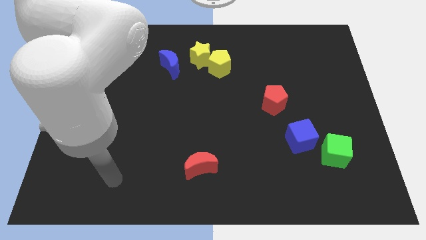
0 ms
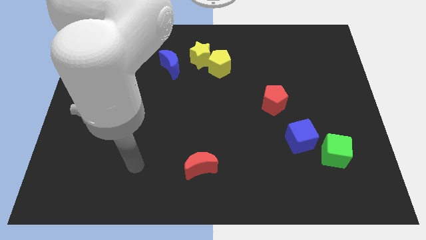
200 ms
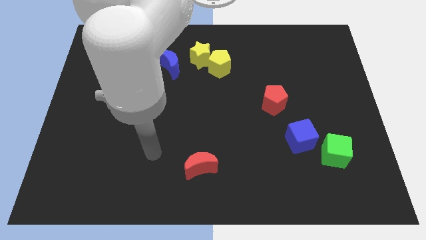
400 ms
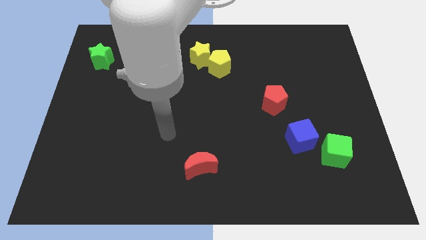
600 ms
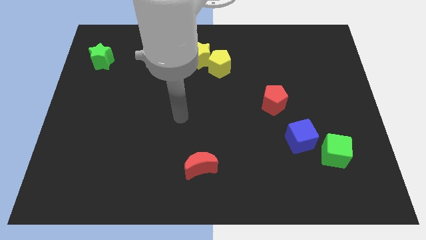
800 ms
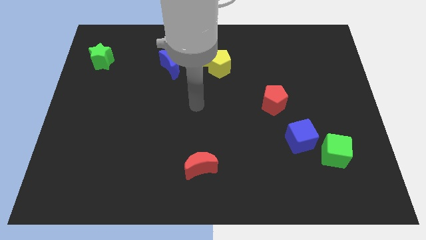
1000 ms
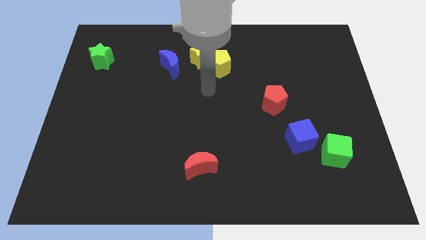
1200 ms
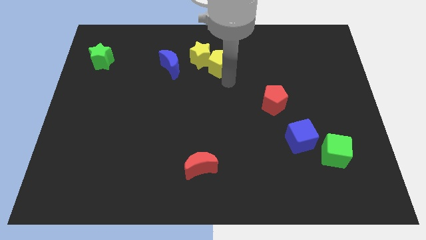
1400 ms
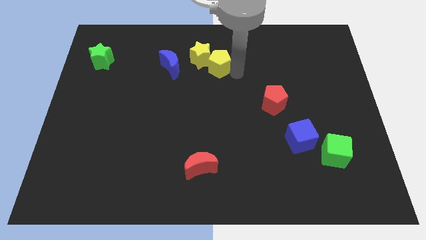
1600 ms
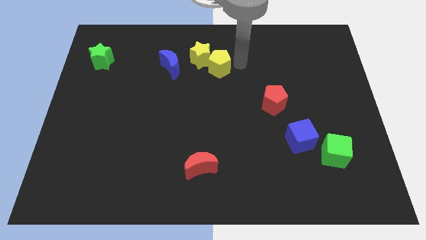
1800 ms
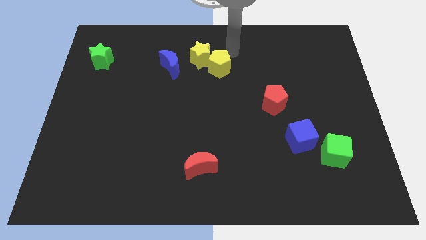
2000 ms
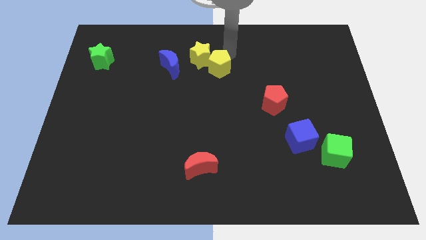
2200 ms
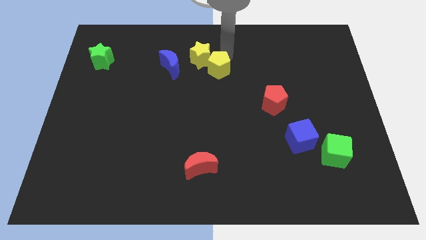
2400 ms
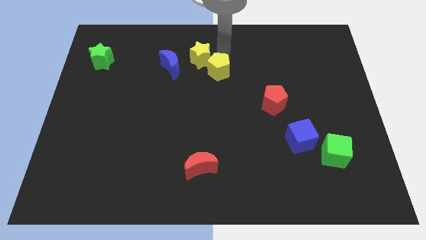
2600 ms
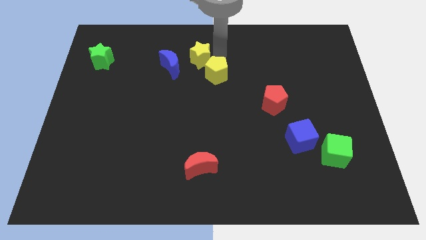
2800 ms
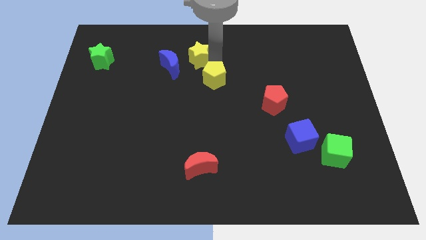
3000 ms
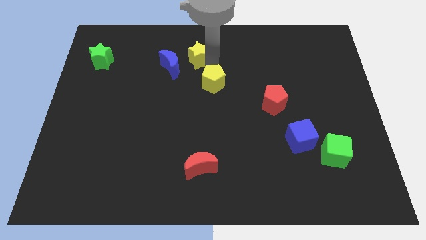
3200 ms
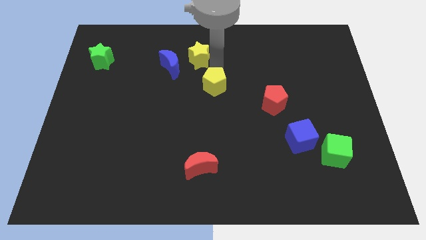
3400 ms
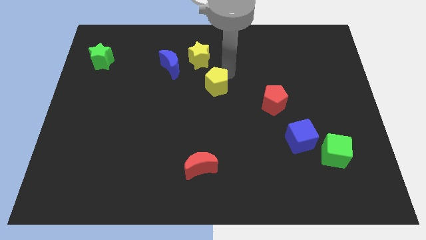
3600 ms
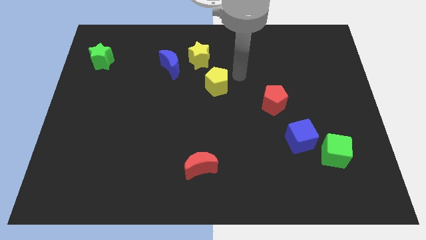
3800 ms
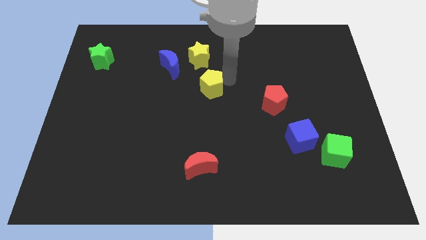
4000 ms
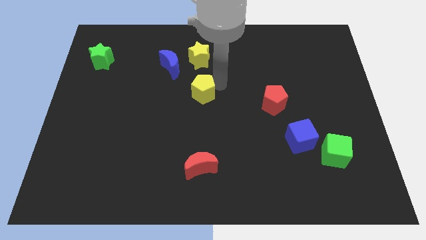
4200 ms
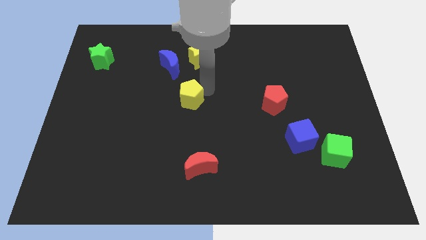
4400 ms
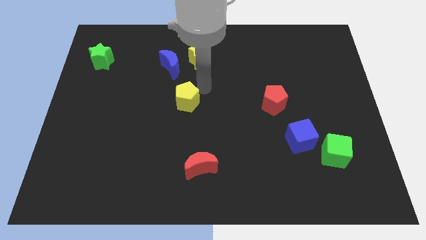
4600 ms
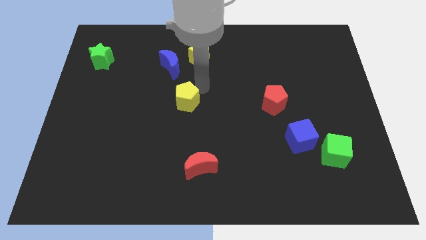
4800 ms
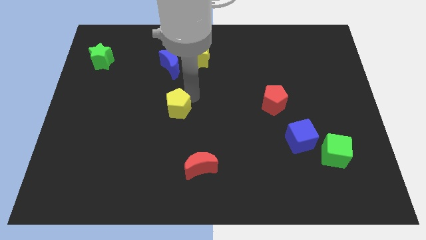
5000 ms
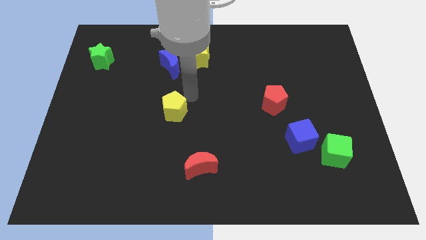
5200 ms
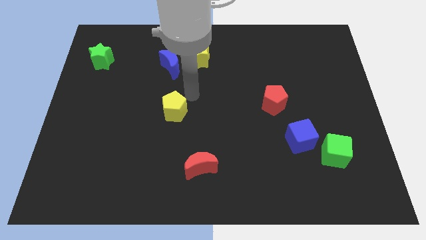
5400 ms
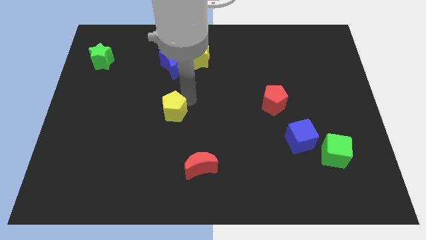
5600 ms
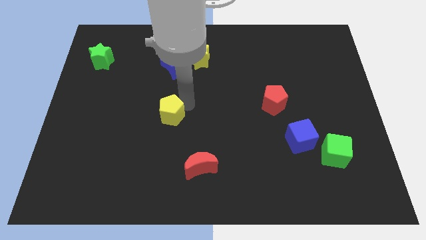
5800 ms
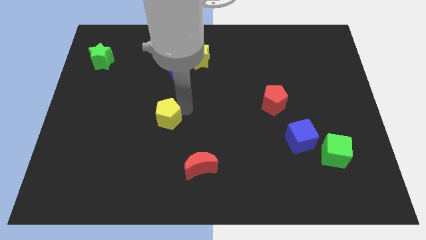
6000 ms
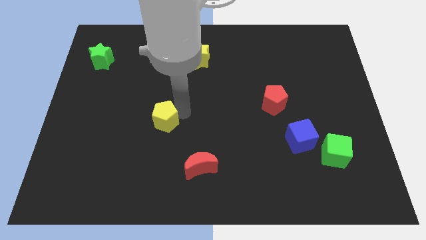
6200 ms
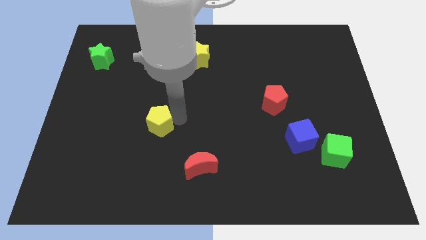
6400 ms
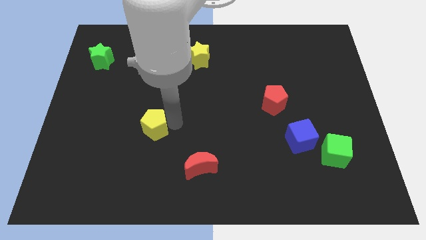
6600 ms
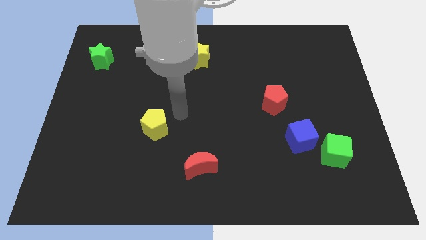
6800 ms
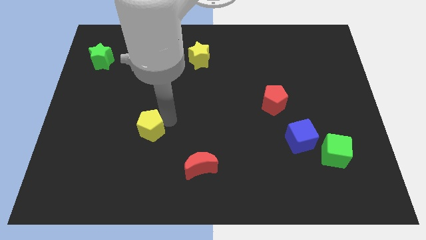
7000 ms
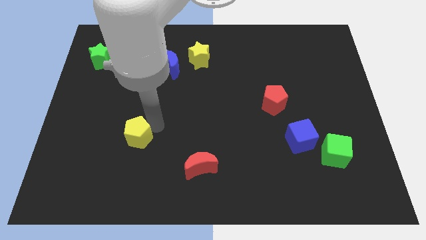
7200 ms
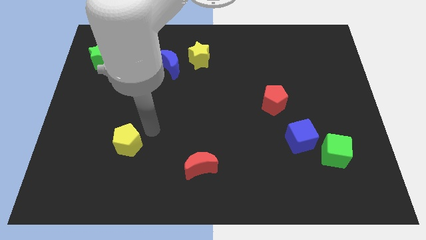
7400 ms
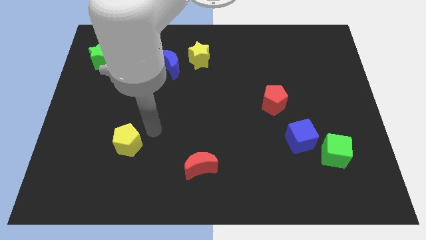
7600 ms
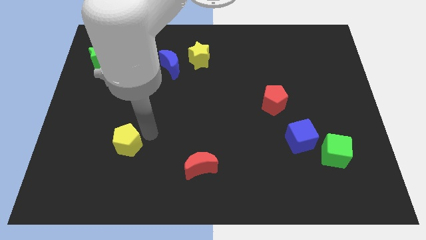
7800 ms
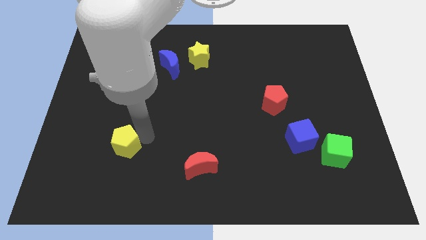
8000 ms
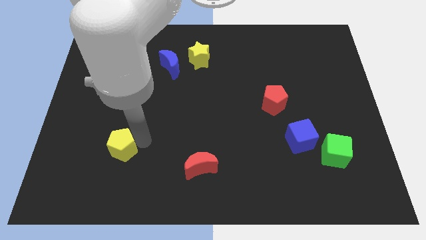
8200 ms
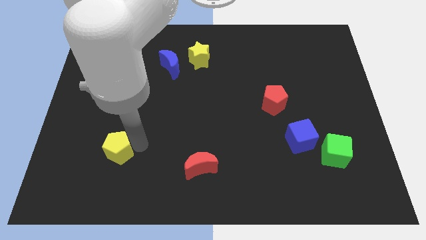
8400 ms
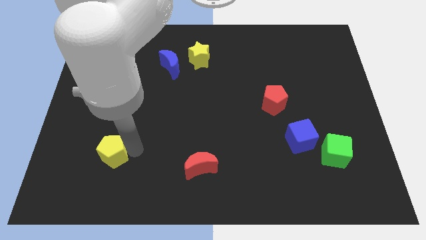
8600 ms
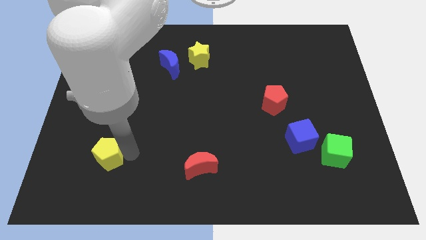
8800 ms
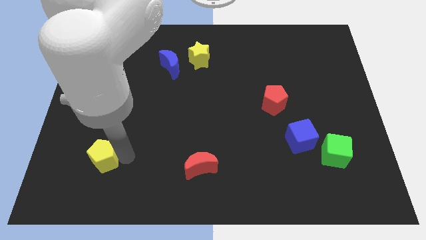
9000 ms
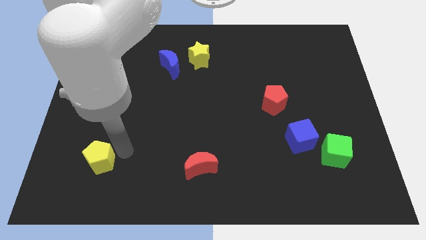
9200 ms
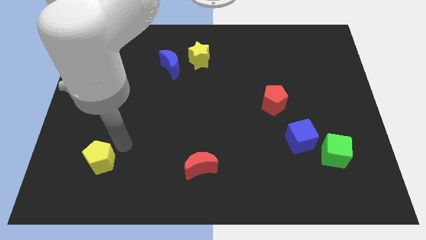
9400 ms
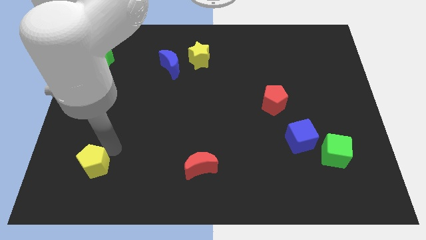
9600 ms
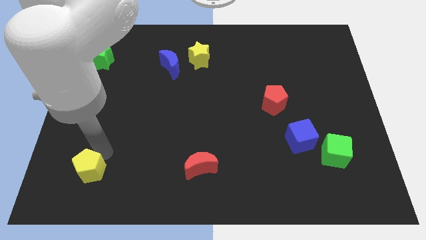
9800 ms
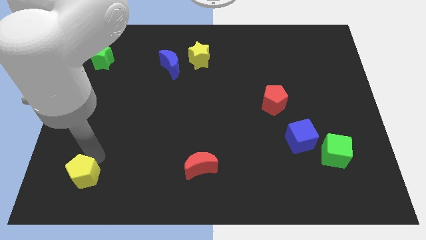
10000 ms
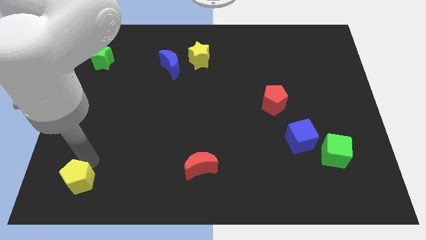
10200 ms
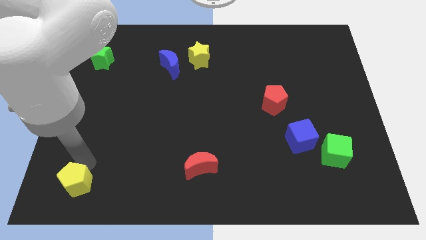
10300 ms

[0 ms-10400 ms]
slide the yellow pentagon to the bottom left

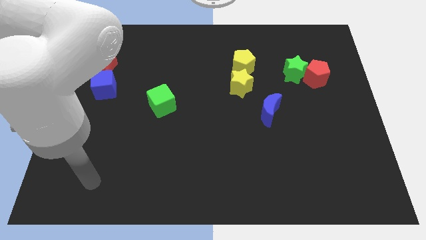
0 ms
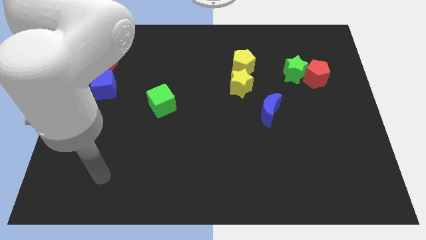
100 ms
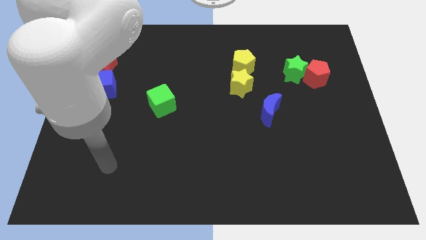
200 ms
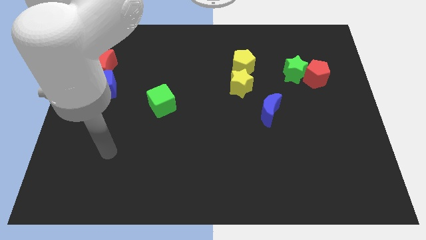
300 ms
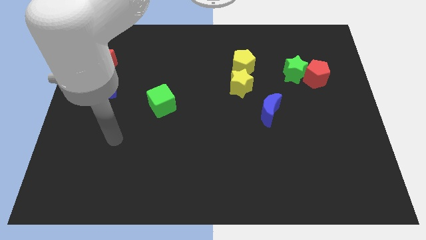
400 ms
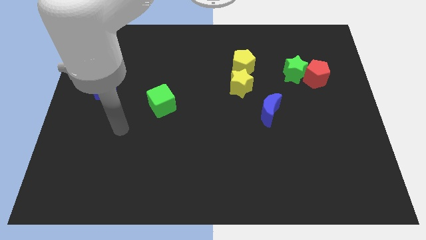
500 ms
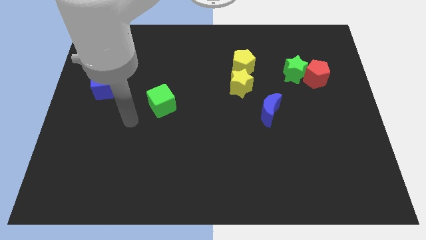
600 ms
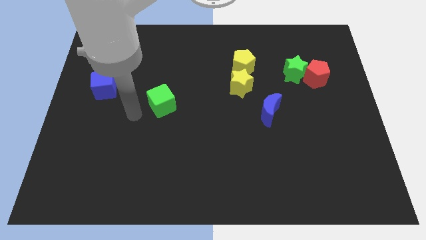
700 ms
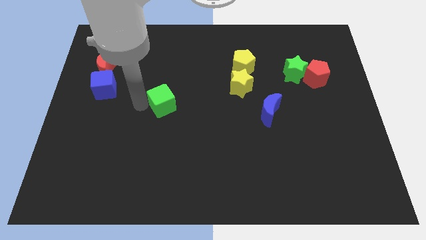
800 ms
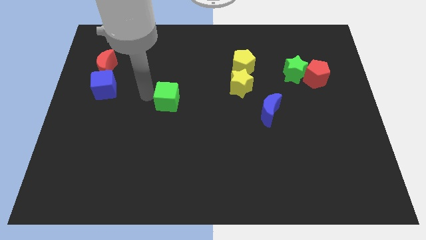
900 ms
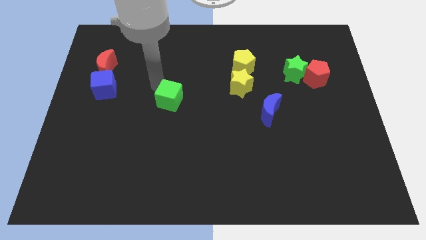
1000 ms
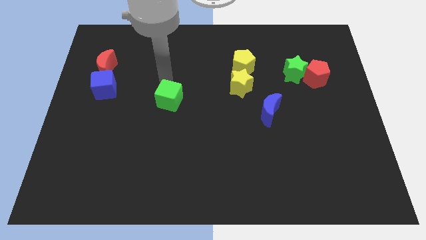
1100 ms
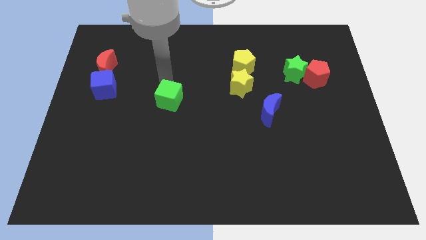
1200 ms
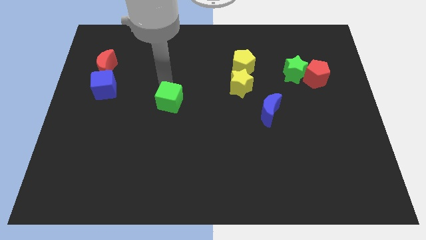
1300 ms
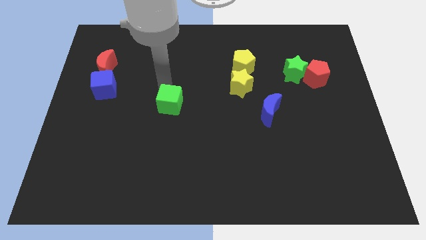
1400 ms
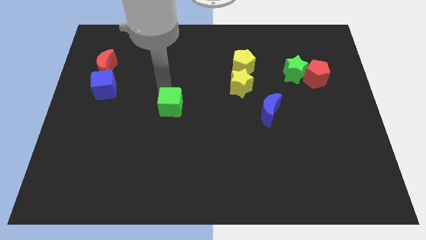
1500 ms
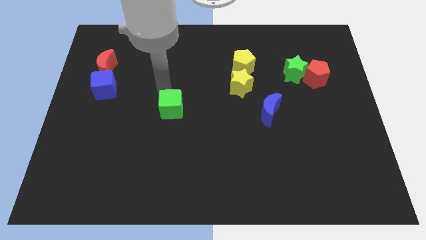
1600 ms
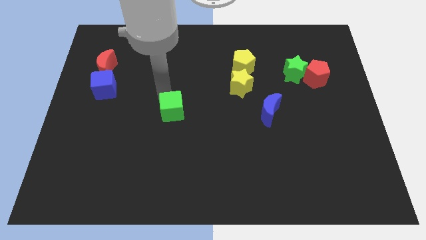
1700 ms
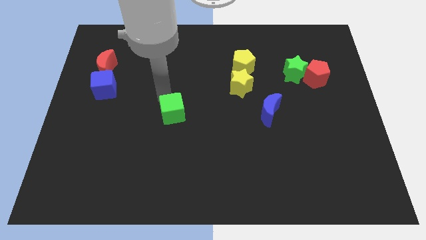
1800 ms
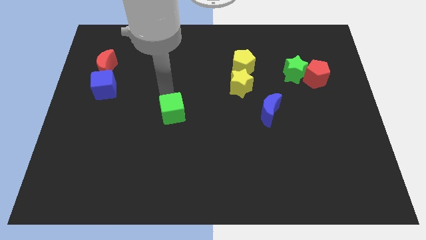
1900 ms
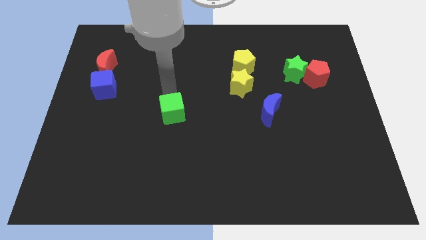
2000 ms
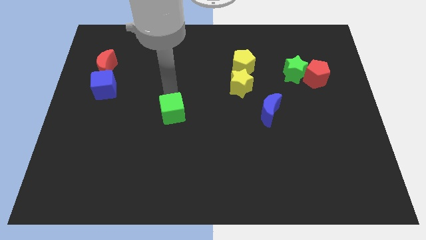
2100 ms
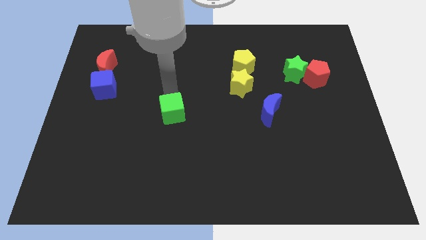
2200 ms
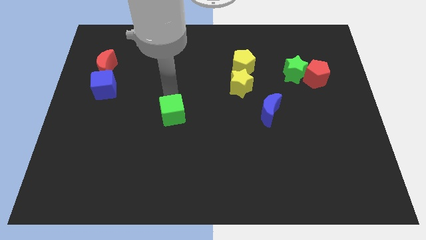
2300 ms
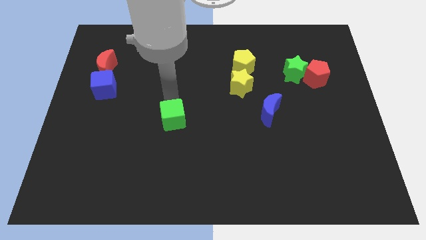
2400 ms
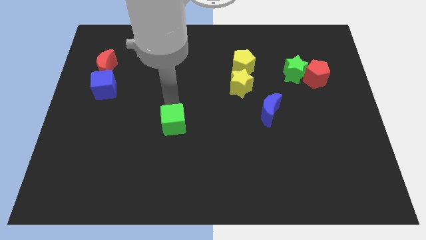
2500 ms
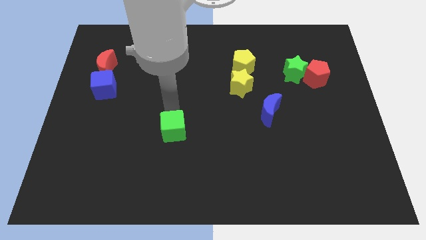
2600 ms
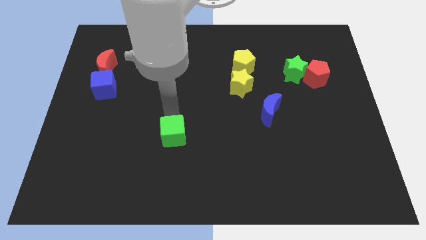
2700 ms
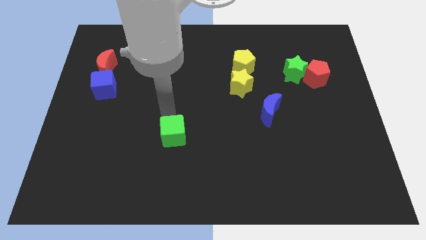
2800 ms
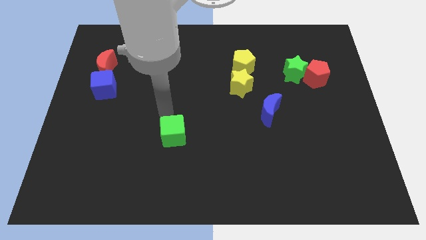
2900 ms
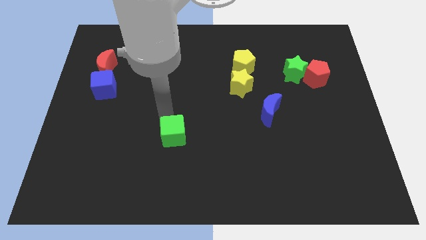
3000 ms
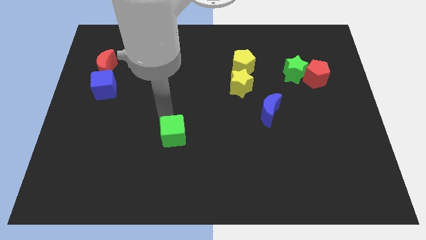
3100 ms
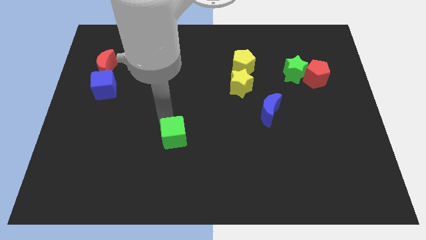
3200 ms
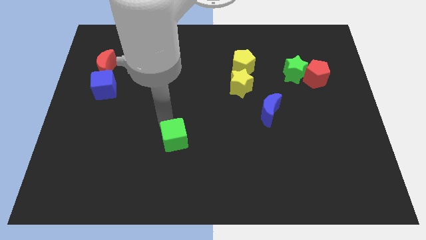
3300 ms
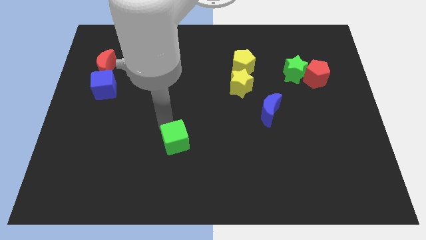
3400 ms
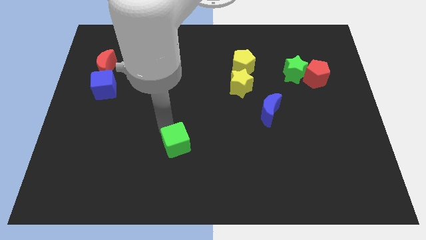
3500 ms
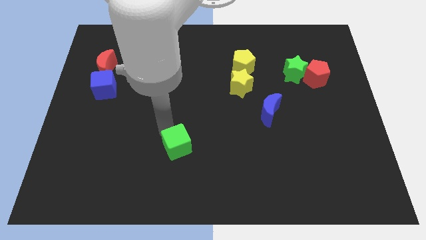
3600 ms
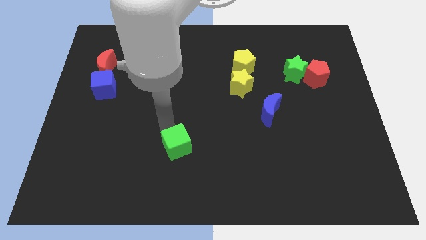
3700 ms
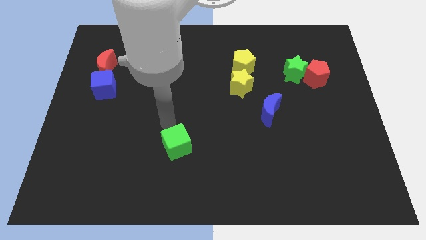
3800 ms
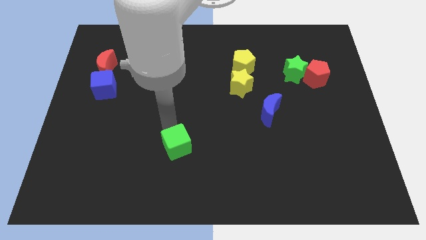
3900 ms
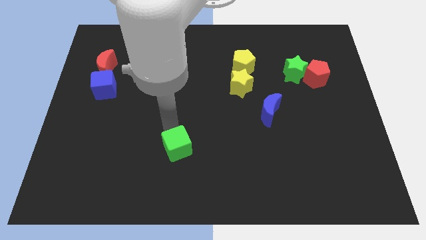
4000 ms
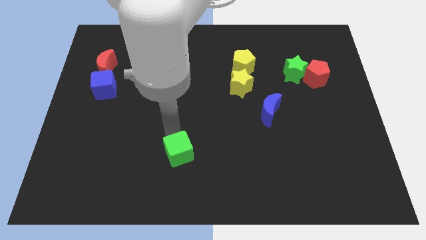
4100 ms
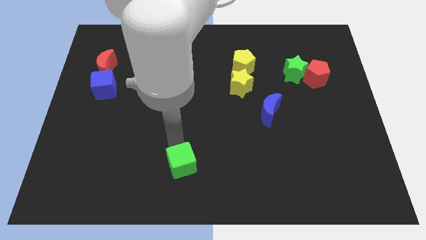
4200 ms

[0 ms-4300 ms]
push the green cube to the bottom side
